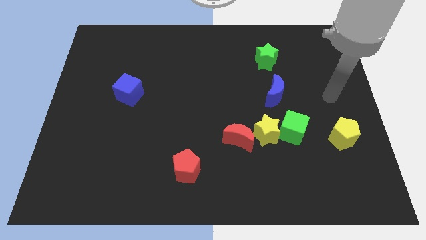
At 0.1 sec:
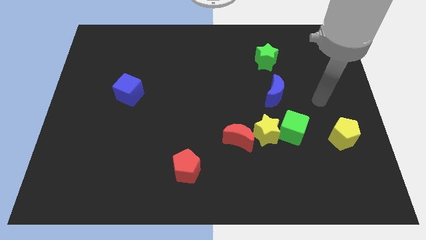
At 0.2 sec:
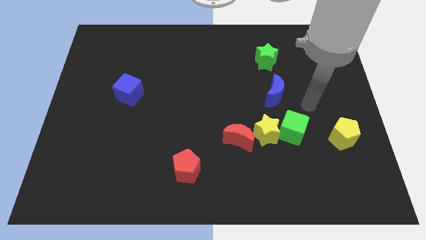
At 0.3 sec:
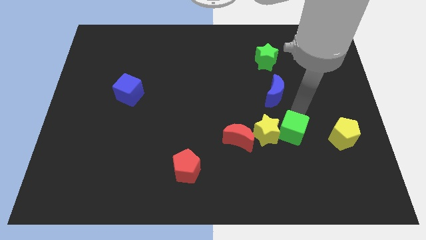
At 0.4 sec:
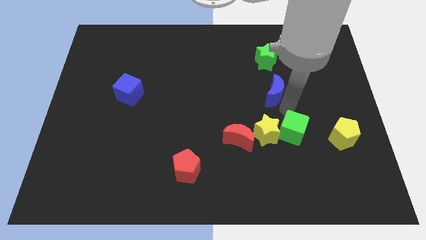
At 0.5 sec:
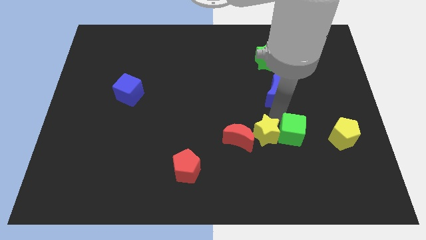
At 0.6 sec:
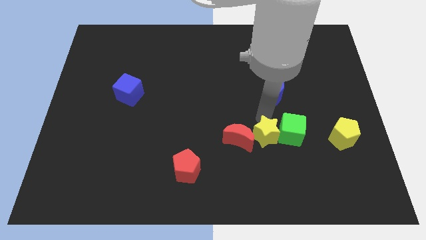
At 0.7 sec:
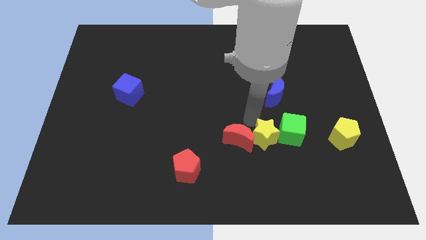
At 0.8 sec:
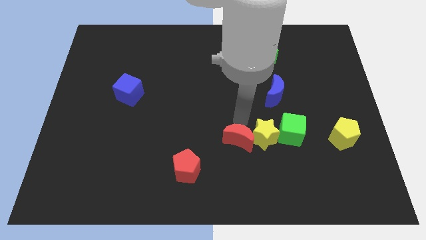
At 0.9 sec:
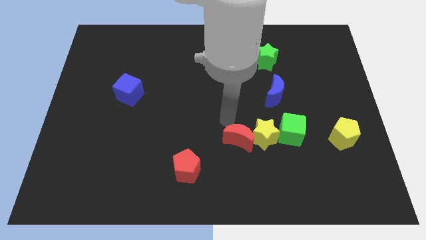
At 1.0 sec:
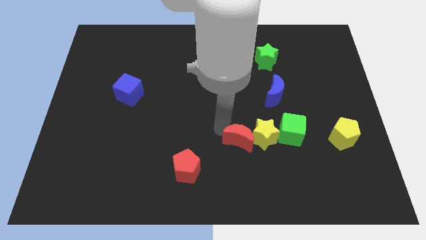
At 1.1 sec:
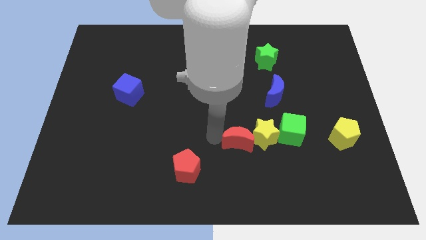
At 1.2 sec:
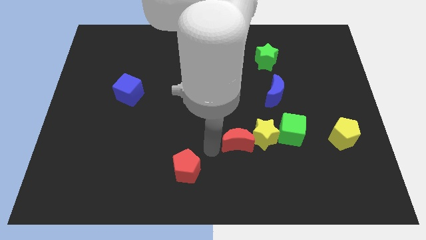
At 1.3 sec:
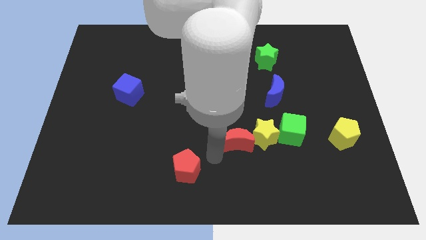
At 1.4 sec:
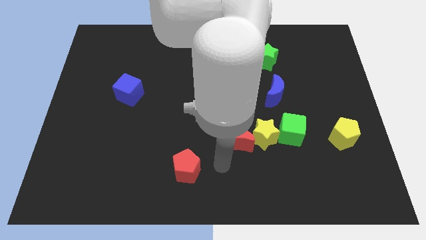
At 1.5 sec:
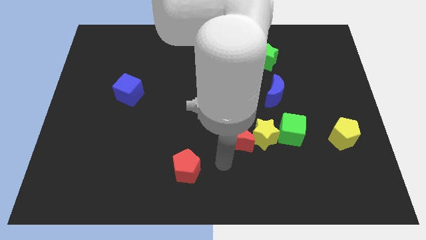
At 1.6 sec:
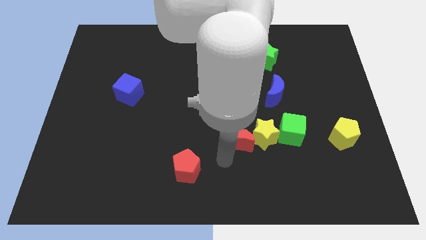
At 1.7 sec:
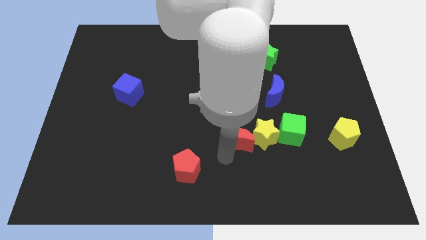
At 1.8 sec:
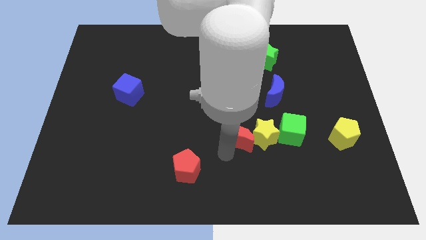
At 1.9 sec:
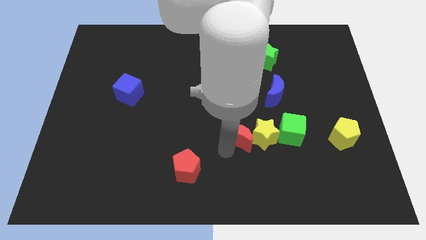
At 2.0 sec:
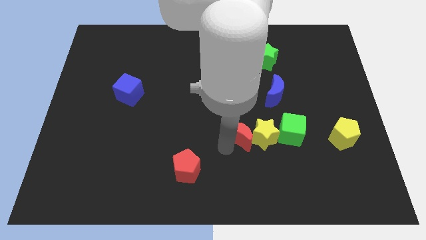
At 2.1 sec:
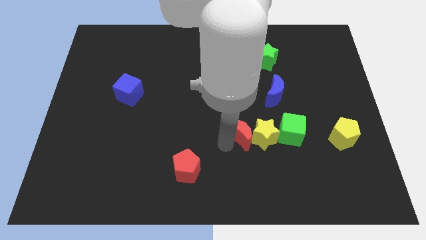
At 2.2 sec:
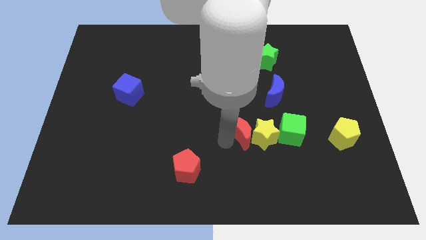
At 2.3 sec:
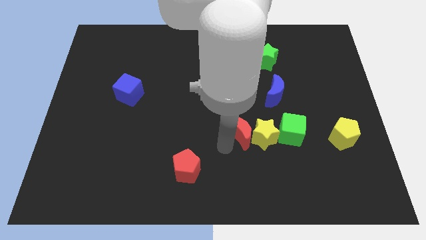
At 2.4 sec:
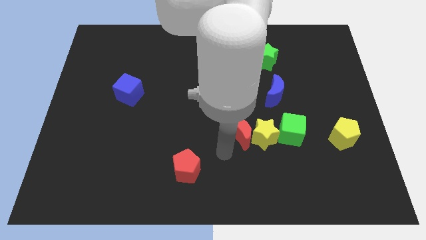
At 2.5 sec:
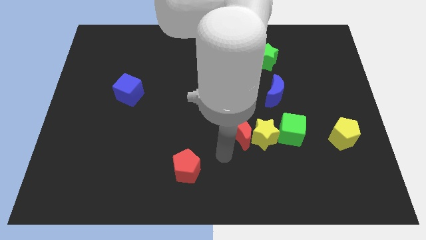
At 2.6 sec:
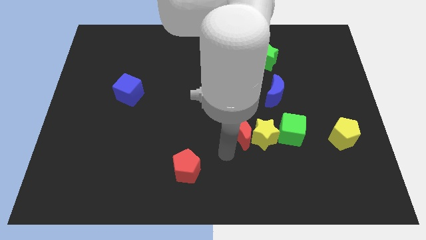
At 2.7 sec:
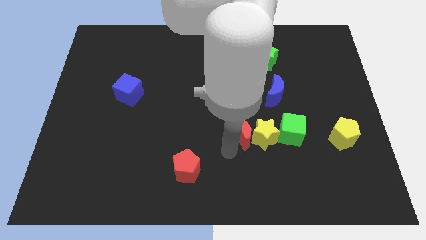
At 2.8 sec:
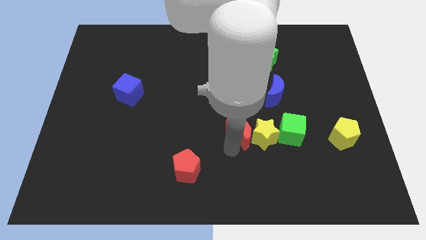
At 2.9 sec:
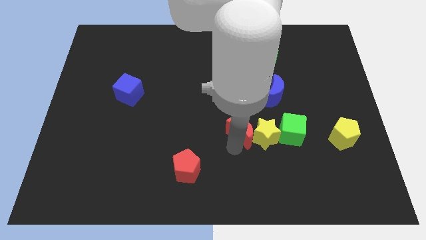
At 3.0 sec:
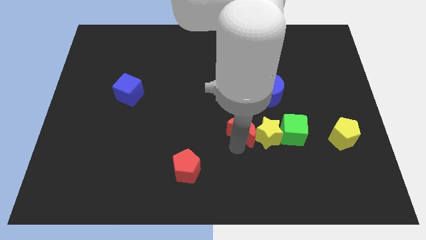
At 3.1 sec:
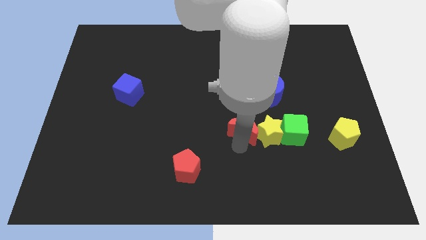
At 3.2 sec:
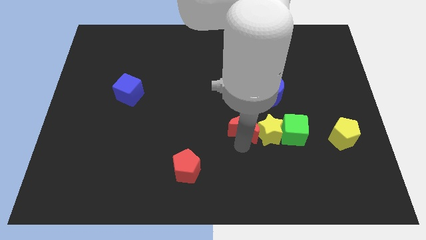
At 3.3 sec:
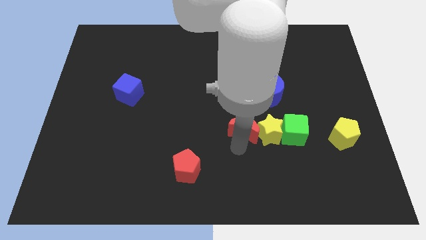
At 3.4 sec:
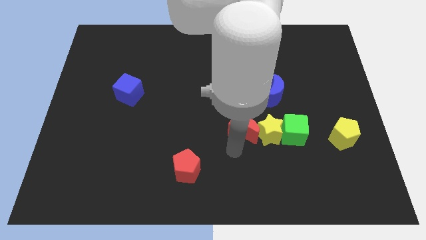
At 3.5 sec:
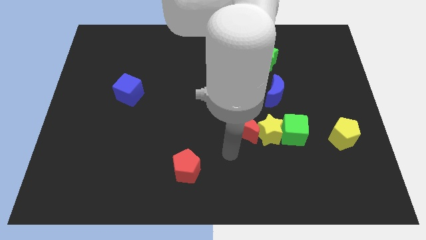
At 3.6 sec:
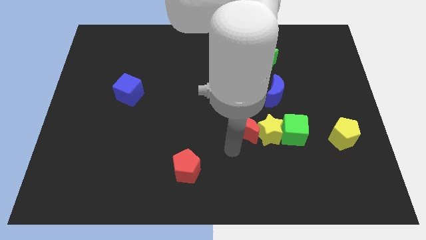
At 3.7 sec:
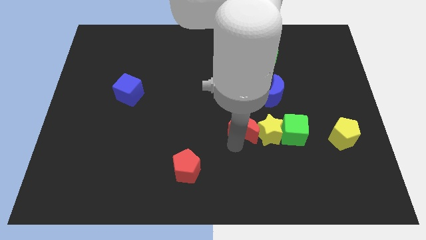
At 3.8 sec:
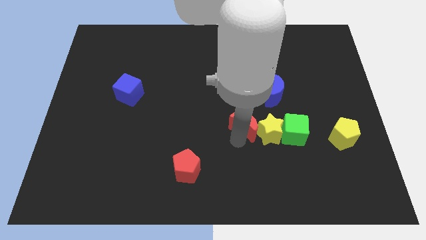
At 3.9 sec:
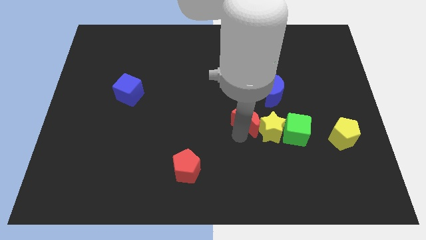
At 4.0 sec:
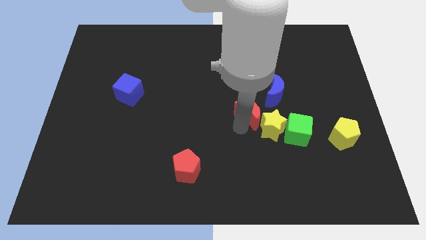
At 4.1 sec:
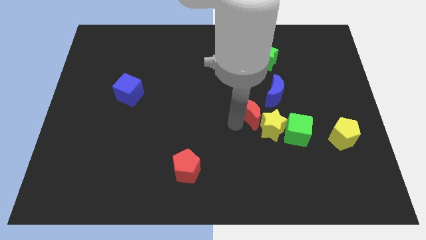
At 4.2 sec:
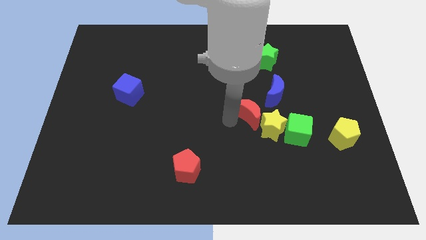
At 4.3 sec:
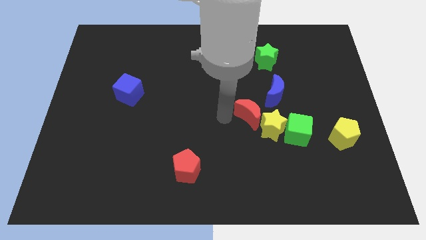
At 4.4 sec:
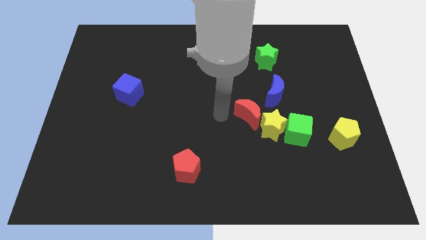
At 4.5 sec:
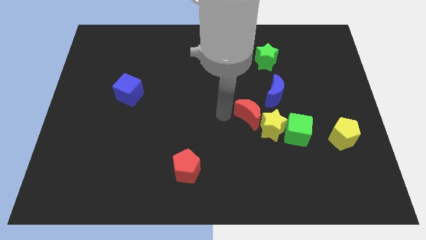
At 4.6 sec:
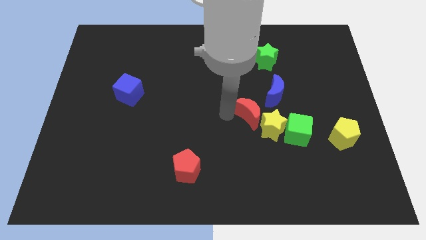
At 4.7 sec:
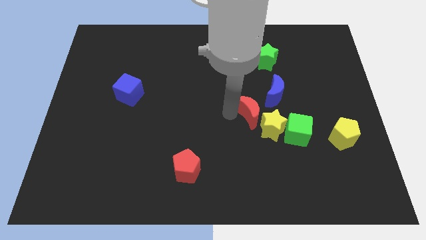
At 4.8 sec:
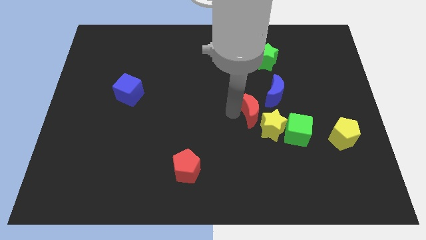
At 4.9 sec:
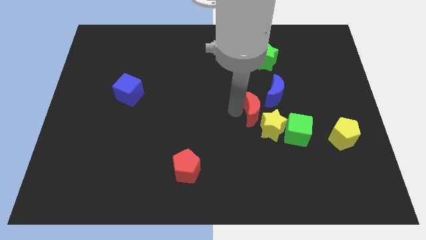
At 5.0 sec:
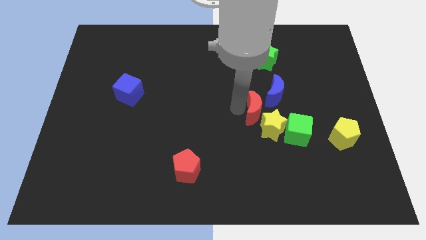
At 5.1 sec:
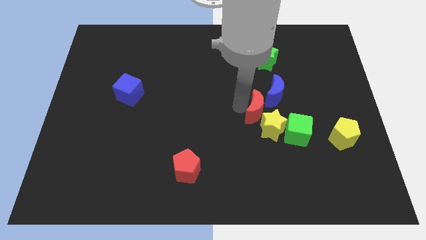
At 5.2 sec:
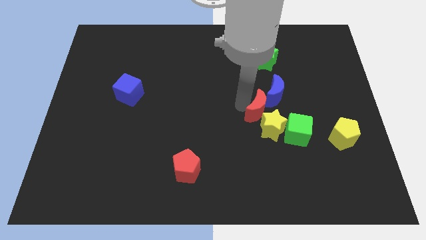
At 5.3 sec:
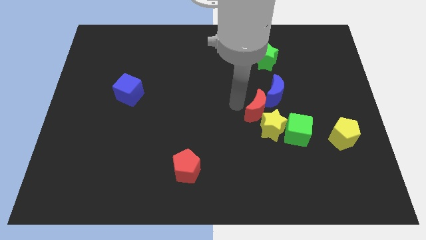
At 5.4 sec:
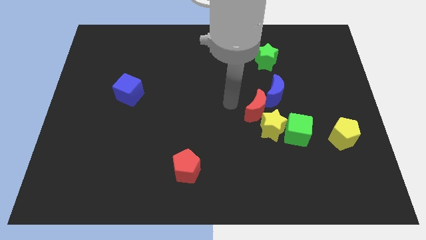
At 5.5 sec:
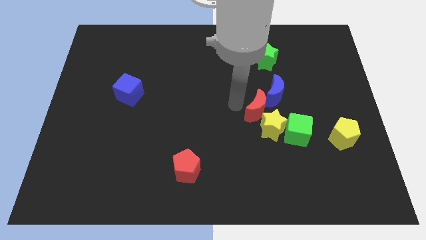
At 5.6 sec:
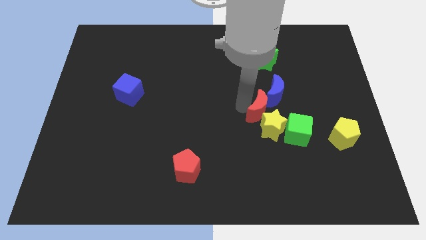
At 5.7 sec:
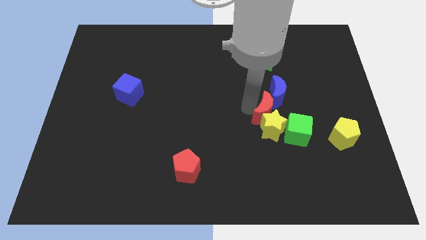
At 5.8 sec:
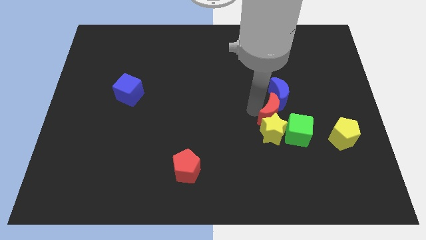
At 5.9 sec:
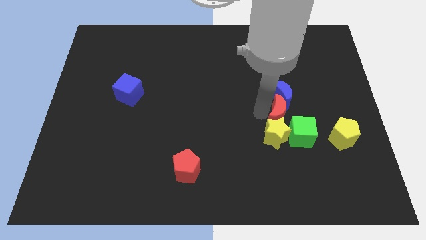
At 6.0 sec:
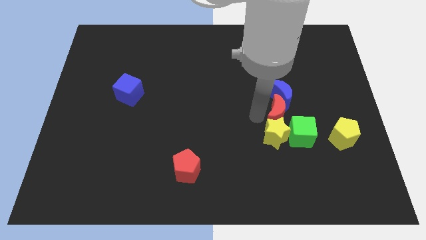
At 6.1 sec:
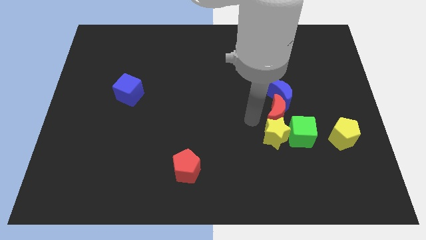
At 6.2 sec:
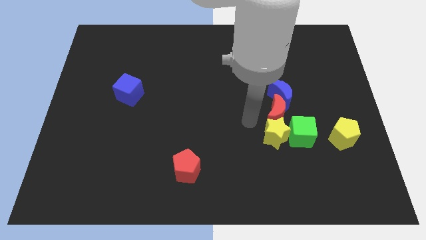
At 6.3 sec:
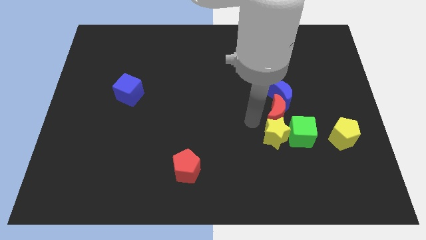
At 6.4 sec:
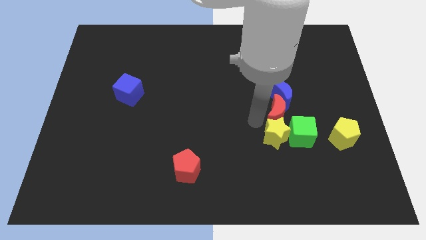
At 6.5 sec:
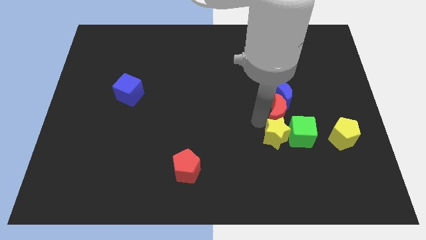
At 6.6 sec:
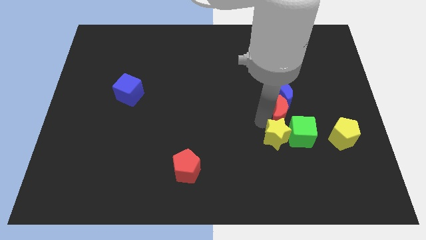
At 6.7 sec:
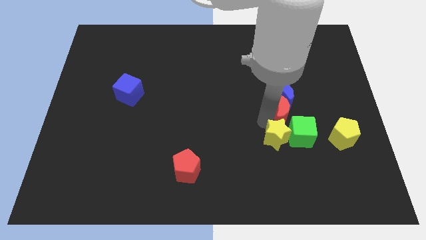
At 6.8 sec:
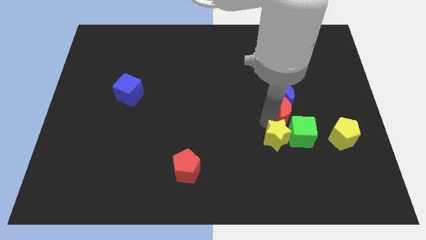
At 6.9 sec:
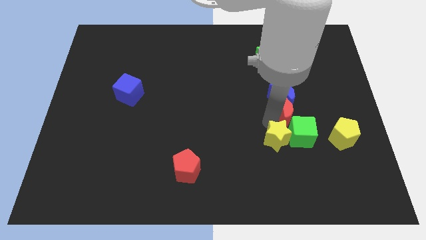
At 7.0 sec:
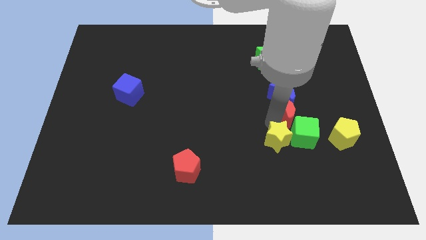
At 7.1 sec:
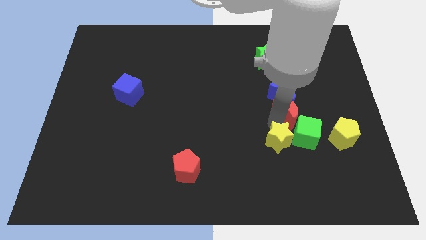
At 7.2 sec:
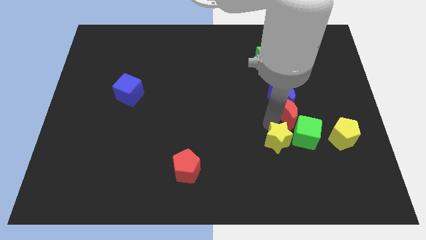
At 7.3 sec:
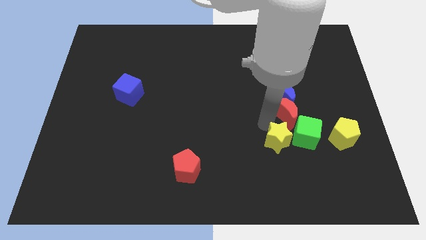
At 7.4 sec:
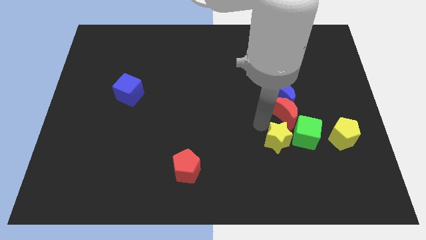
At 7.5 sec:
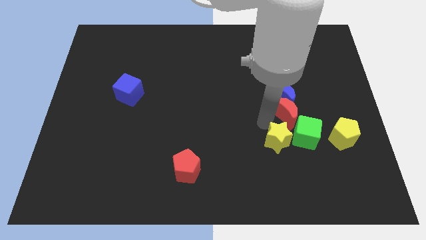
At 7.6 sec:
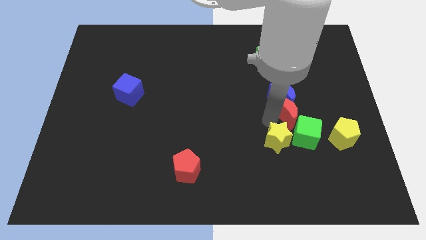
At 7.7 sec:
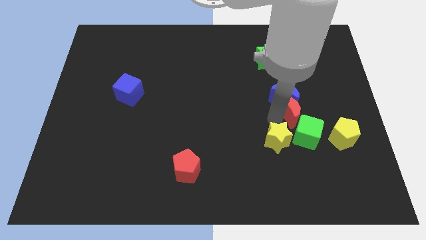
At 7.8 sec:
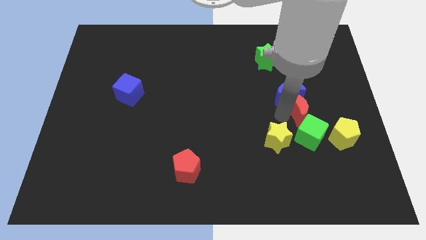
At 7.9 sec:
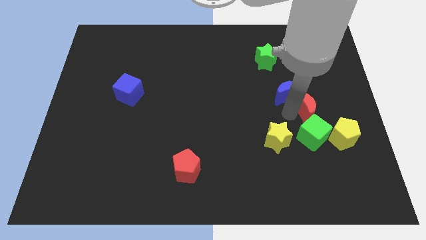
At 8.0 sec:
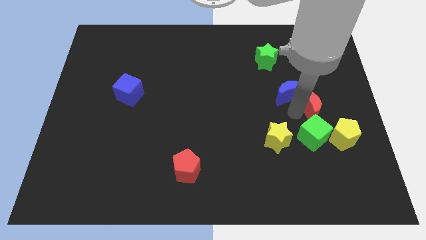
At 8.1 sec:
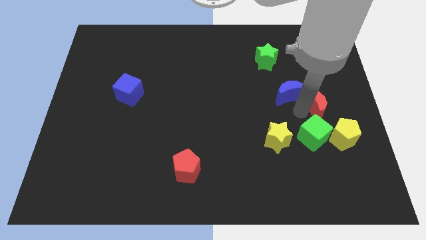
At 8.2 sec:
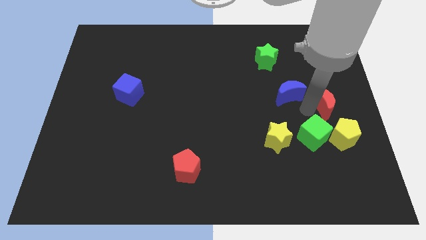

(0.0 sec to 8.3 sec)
slide the red moon to the right side of the board
